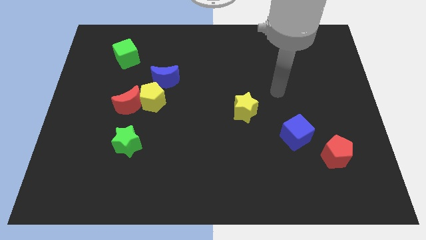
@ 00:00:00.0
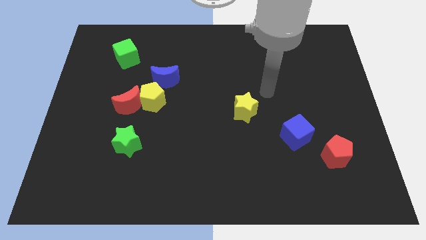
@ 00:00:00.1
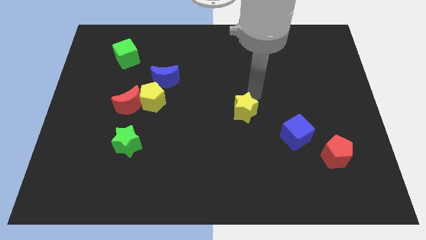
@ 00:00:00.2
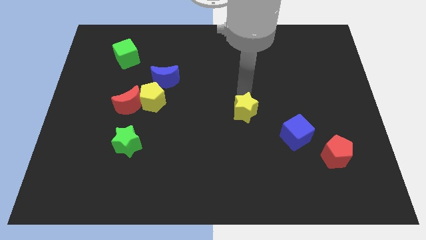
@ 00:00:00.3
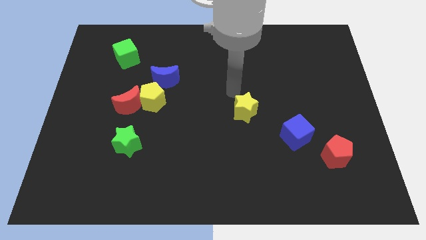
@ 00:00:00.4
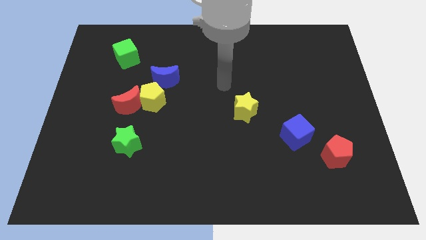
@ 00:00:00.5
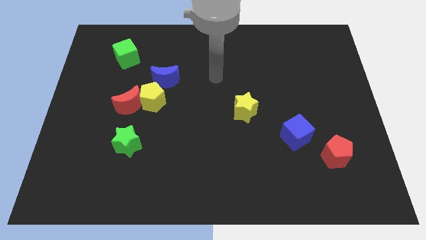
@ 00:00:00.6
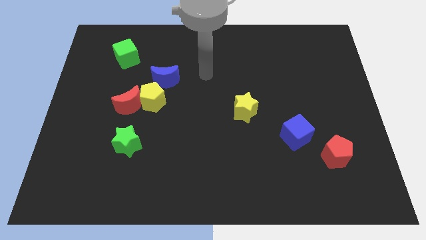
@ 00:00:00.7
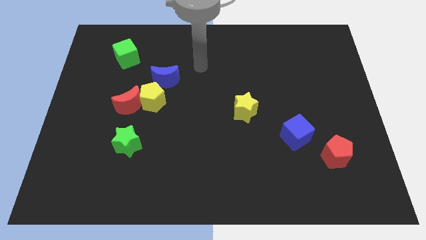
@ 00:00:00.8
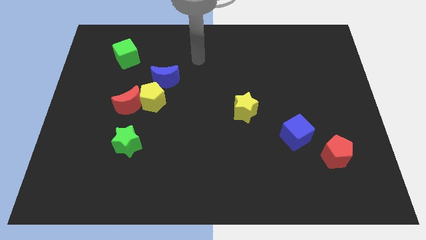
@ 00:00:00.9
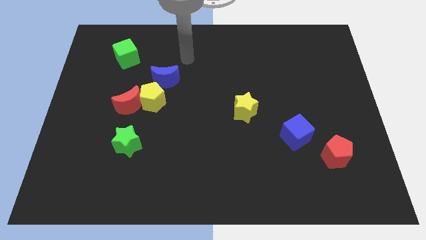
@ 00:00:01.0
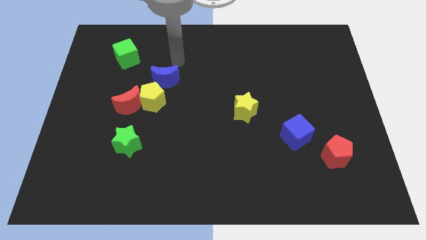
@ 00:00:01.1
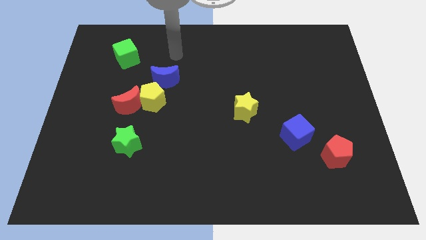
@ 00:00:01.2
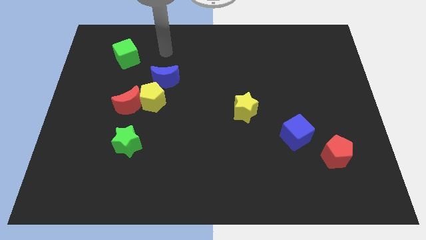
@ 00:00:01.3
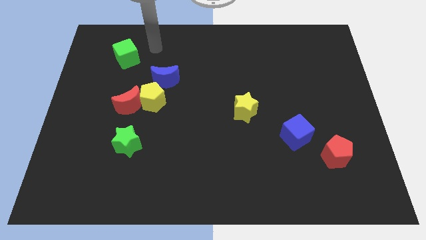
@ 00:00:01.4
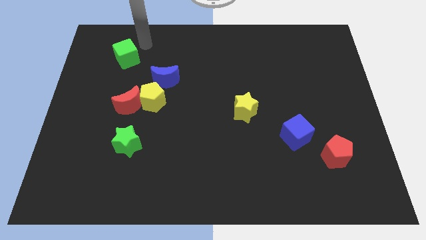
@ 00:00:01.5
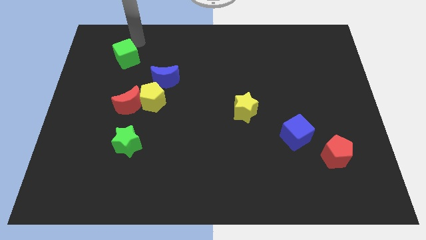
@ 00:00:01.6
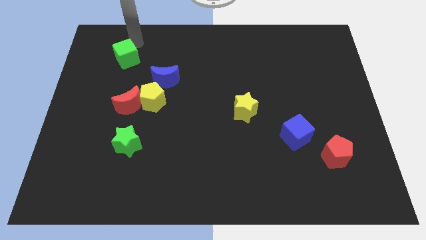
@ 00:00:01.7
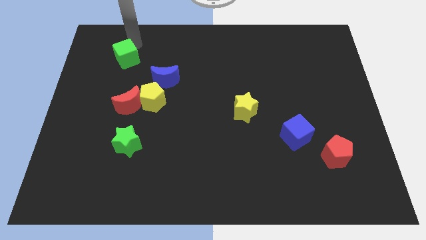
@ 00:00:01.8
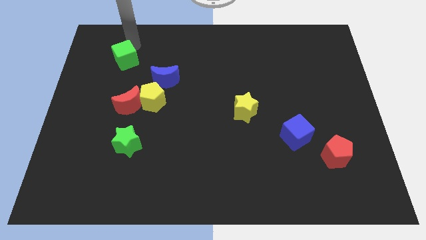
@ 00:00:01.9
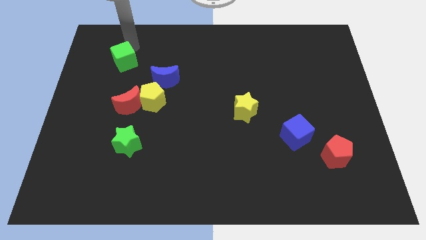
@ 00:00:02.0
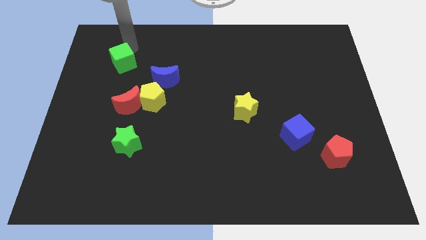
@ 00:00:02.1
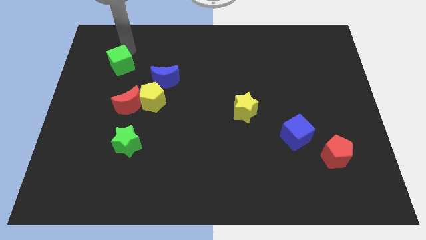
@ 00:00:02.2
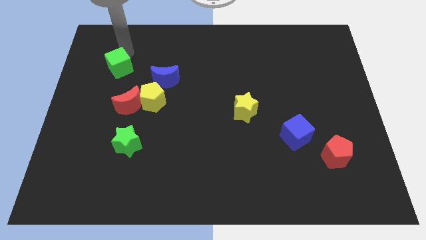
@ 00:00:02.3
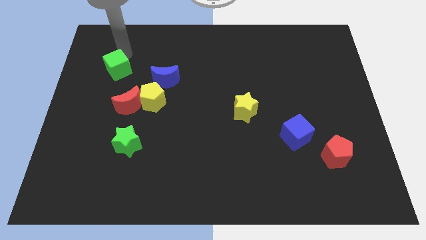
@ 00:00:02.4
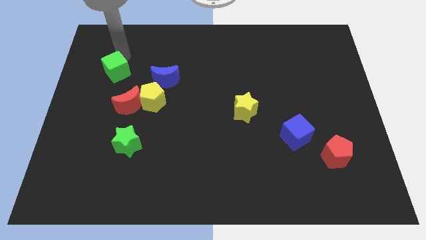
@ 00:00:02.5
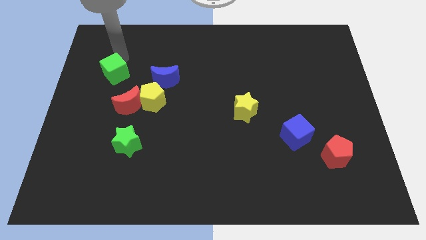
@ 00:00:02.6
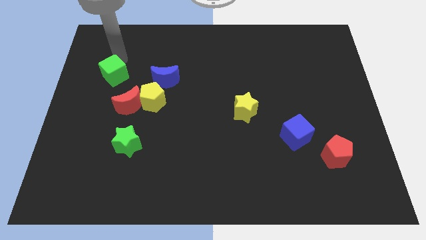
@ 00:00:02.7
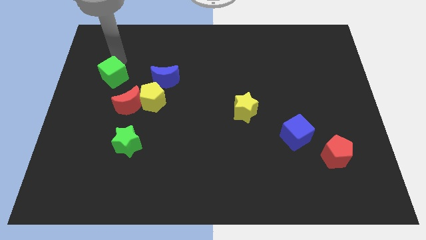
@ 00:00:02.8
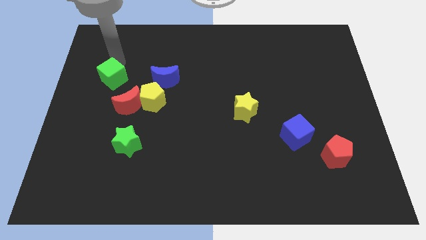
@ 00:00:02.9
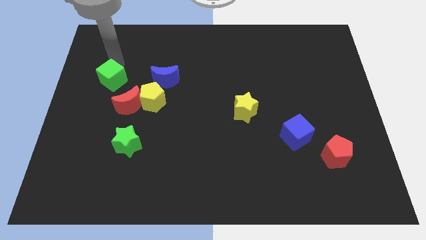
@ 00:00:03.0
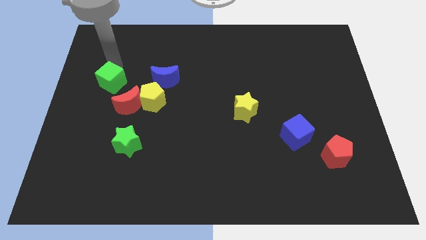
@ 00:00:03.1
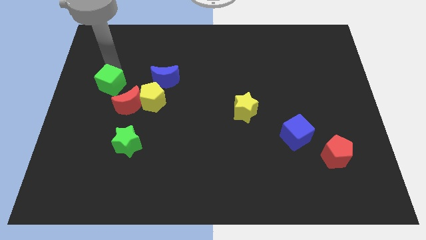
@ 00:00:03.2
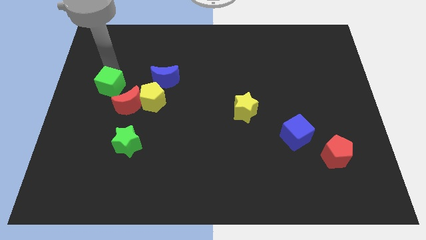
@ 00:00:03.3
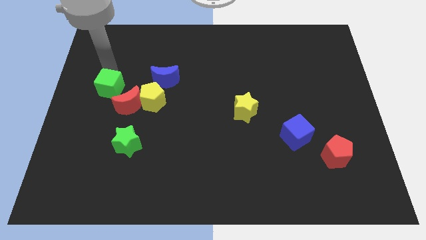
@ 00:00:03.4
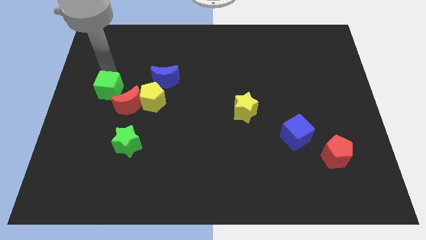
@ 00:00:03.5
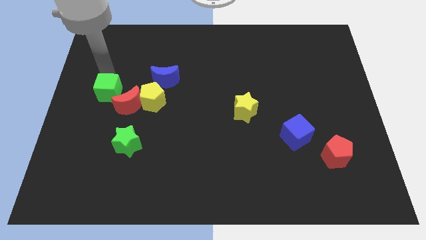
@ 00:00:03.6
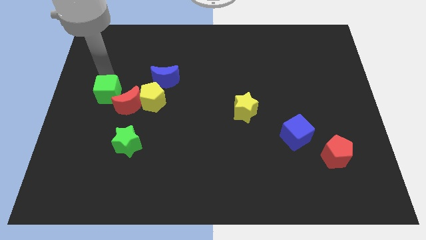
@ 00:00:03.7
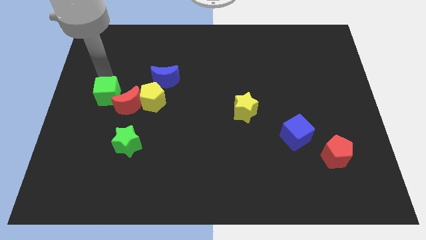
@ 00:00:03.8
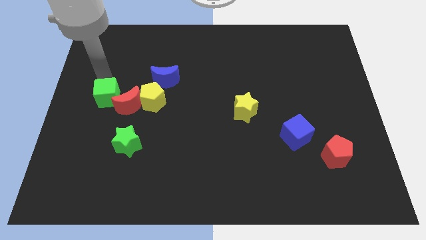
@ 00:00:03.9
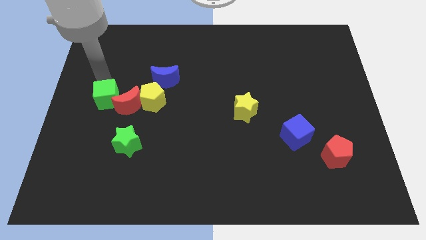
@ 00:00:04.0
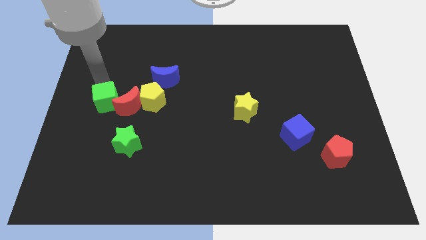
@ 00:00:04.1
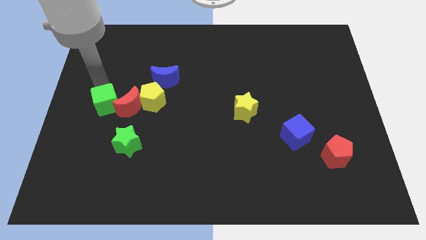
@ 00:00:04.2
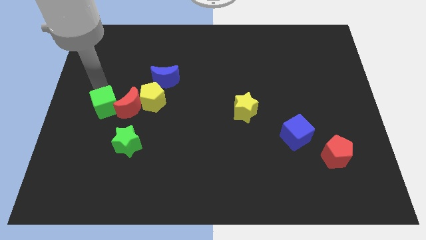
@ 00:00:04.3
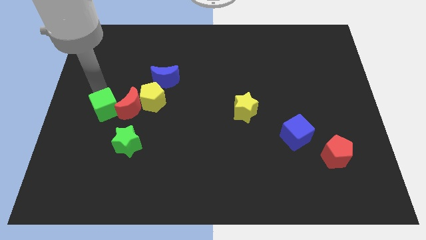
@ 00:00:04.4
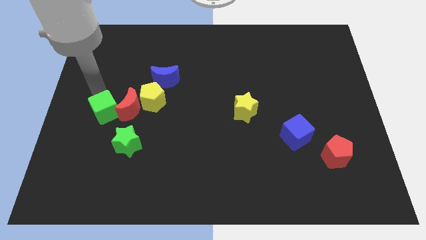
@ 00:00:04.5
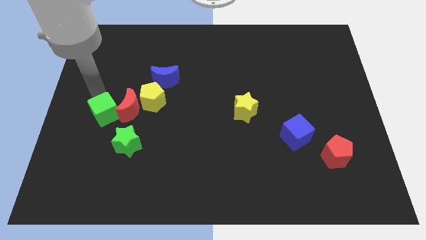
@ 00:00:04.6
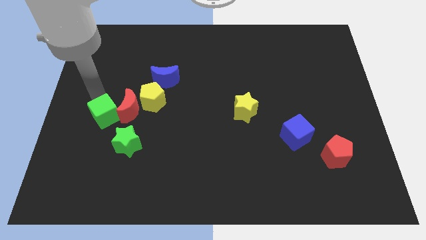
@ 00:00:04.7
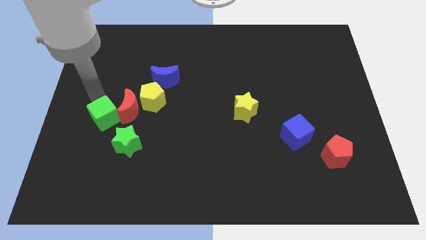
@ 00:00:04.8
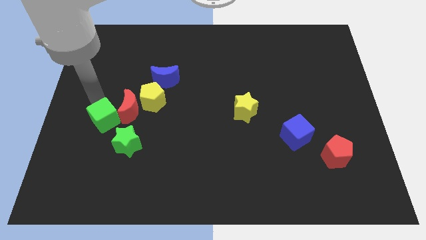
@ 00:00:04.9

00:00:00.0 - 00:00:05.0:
push the green cube down

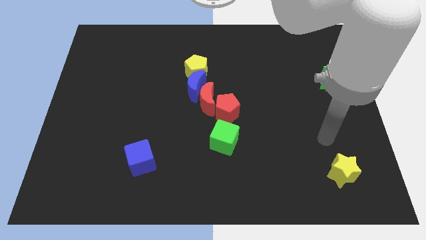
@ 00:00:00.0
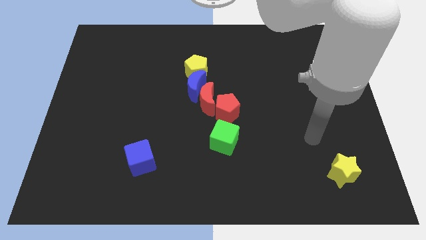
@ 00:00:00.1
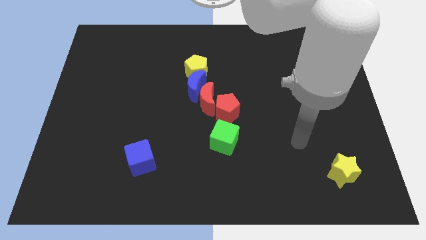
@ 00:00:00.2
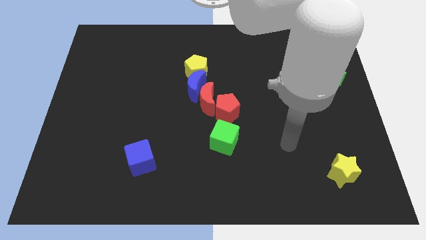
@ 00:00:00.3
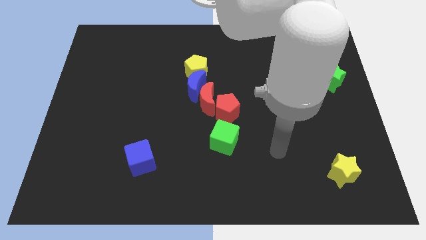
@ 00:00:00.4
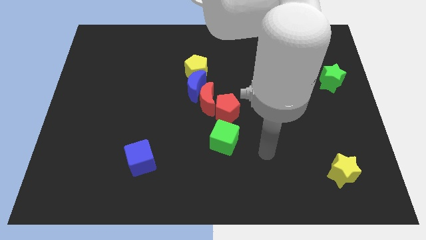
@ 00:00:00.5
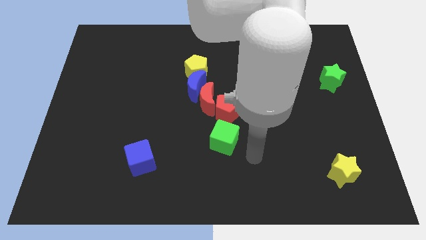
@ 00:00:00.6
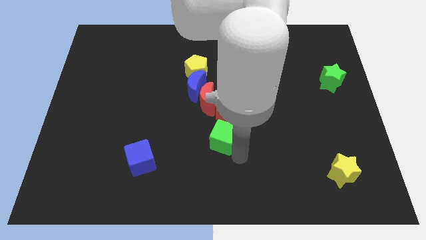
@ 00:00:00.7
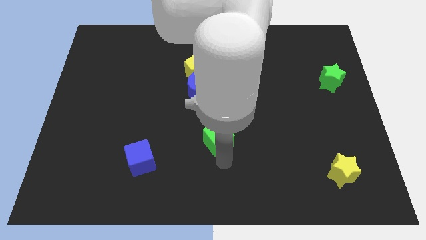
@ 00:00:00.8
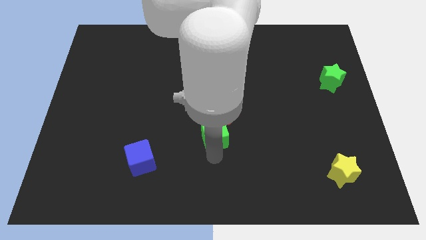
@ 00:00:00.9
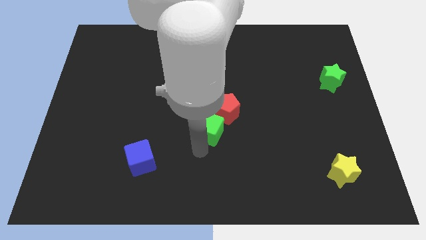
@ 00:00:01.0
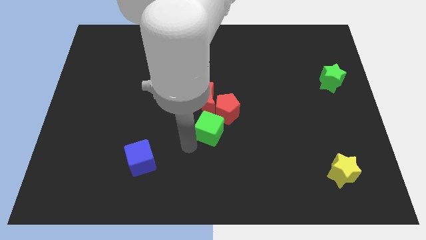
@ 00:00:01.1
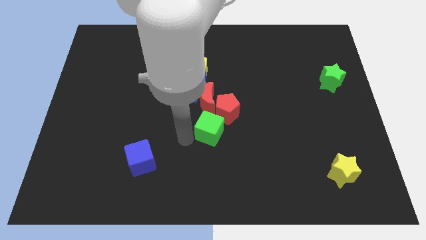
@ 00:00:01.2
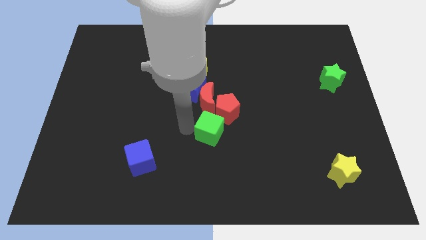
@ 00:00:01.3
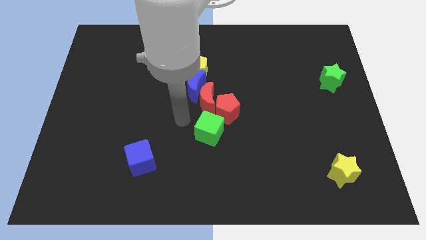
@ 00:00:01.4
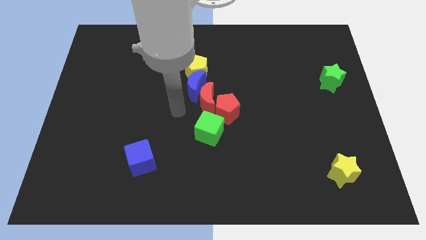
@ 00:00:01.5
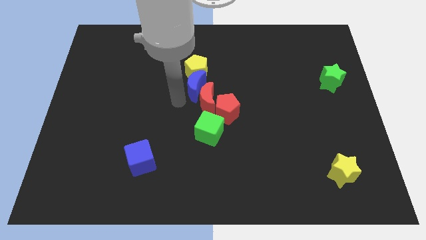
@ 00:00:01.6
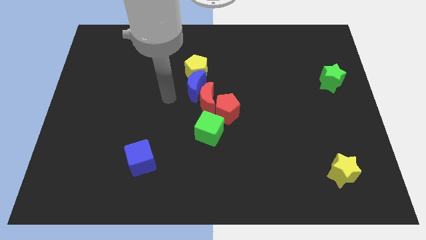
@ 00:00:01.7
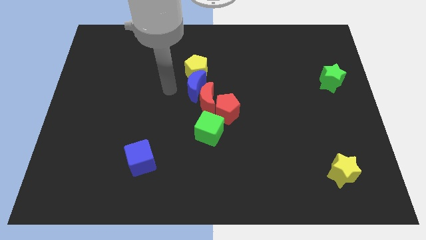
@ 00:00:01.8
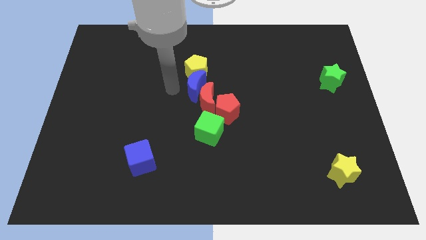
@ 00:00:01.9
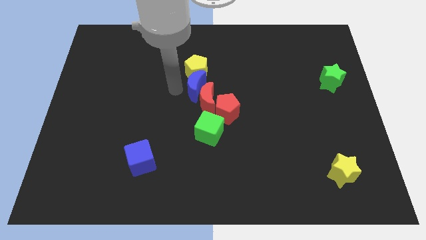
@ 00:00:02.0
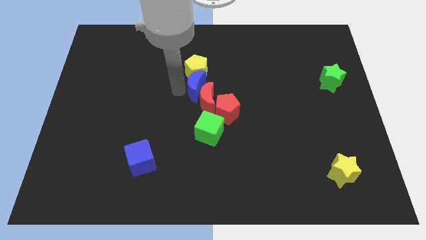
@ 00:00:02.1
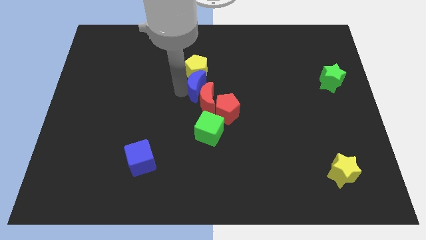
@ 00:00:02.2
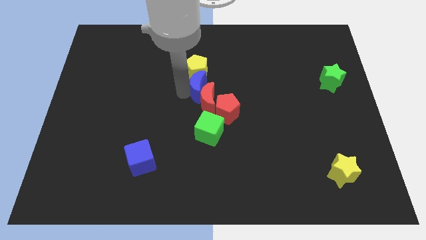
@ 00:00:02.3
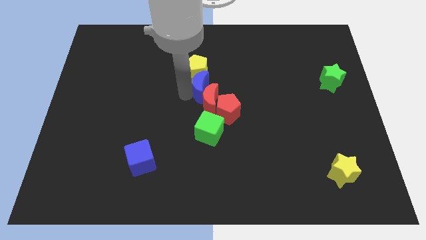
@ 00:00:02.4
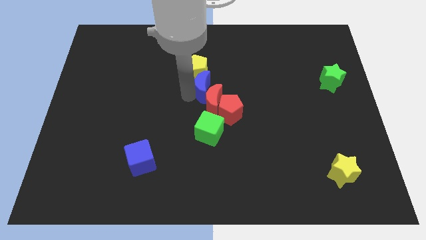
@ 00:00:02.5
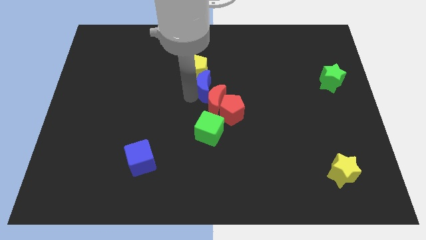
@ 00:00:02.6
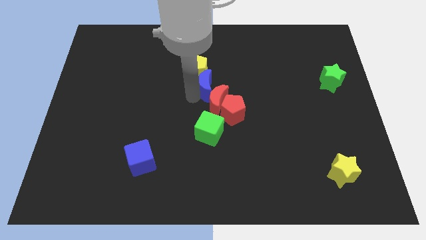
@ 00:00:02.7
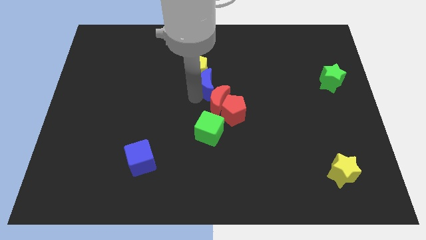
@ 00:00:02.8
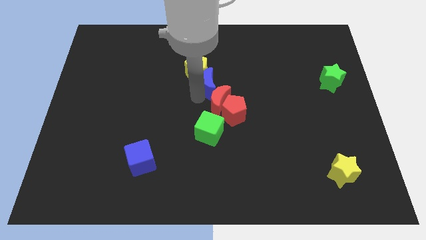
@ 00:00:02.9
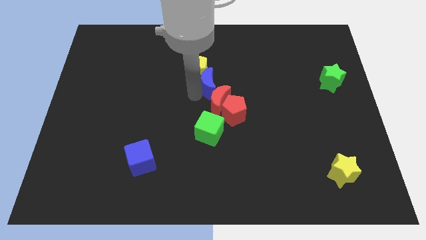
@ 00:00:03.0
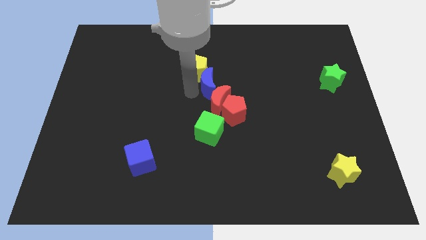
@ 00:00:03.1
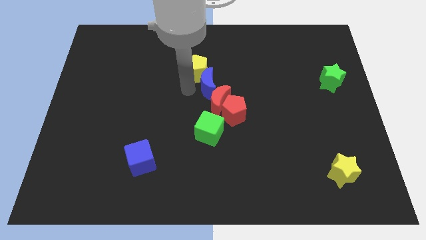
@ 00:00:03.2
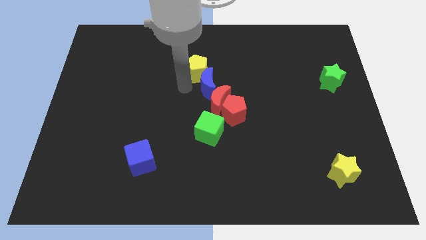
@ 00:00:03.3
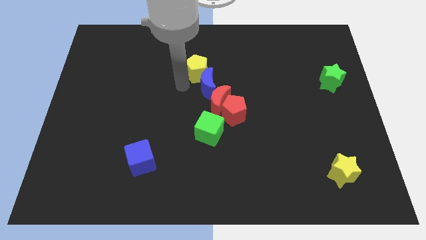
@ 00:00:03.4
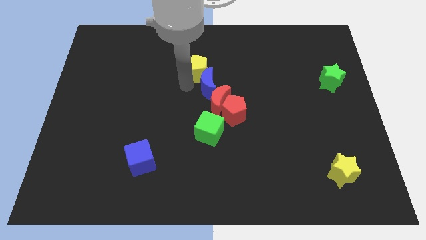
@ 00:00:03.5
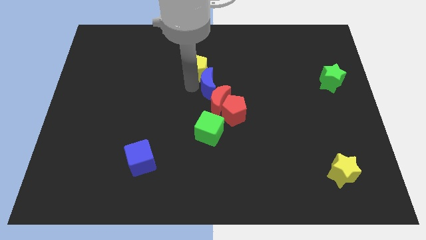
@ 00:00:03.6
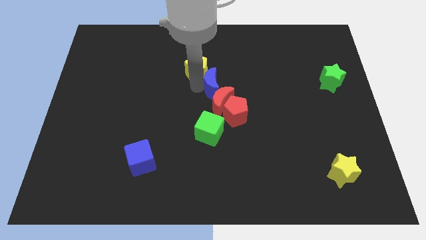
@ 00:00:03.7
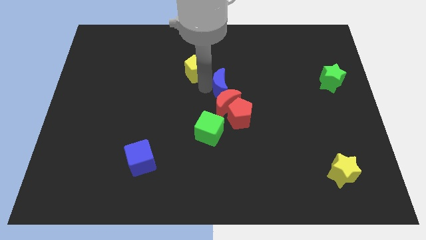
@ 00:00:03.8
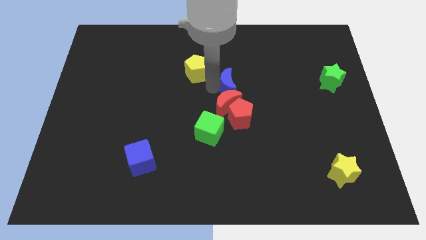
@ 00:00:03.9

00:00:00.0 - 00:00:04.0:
push the blue moon to the right slightly
